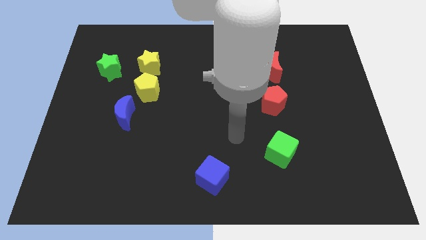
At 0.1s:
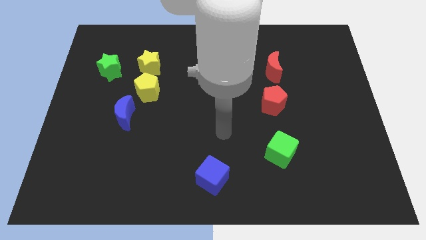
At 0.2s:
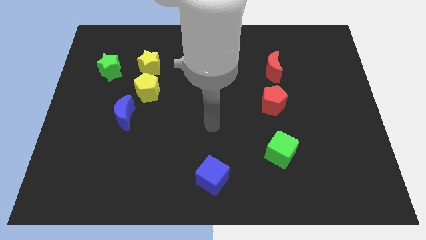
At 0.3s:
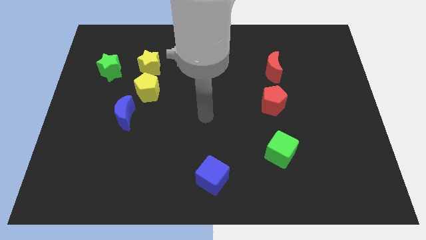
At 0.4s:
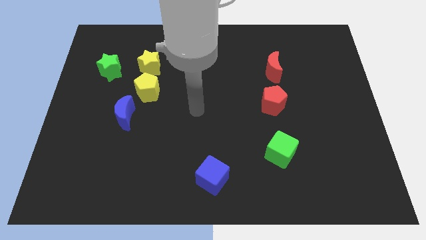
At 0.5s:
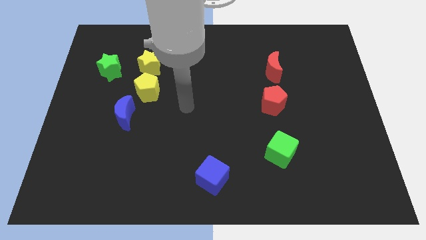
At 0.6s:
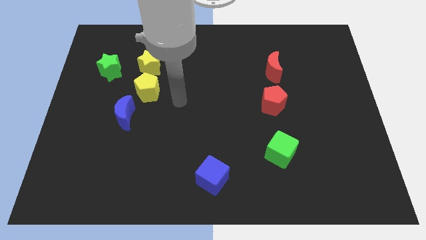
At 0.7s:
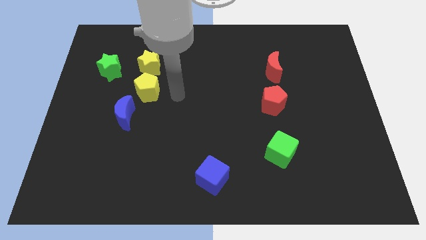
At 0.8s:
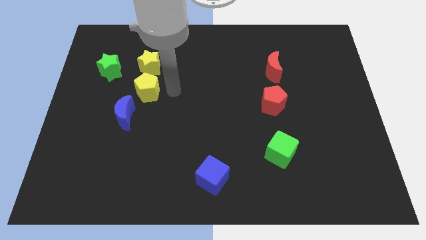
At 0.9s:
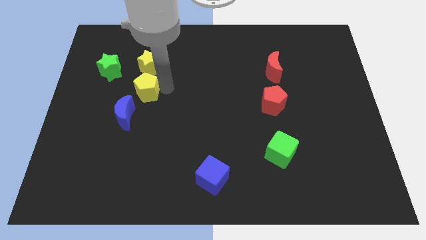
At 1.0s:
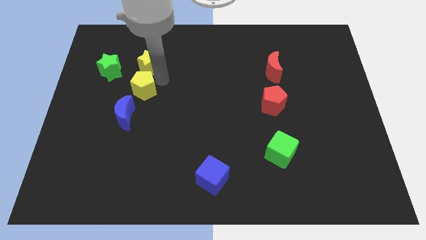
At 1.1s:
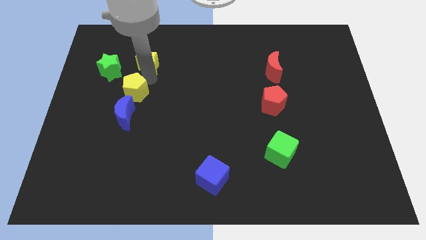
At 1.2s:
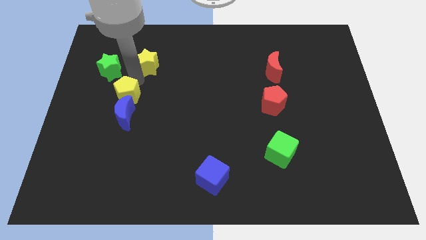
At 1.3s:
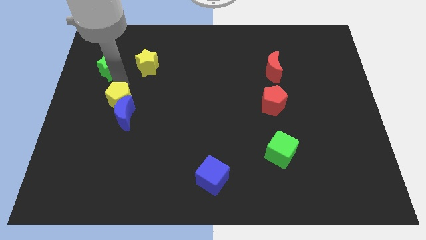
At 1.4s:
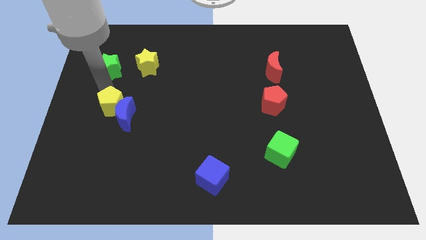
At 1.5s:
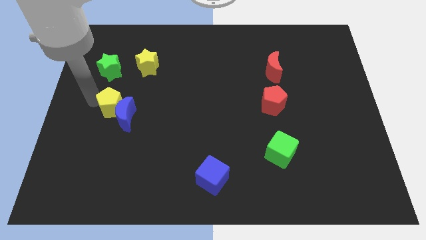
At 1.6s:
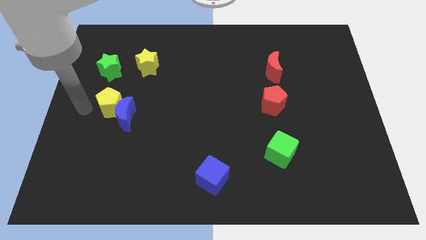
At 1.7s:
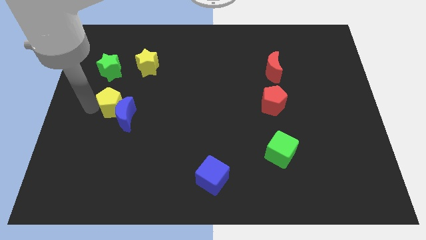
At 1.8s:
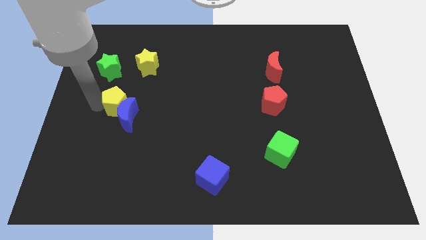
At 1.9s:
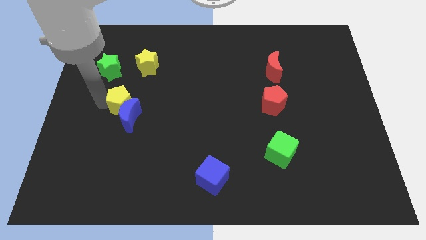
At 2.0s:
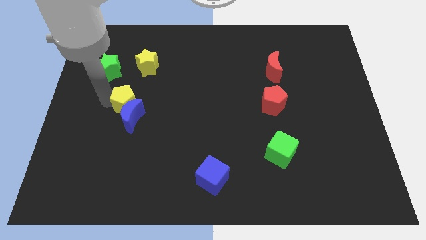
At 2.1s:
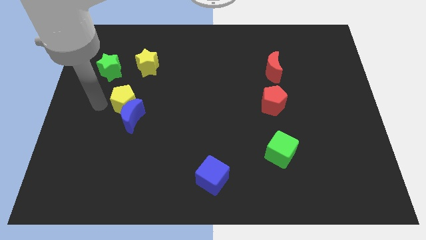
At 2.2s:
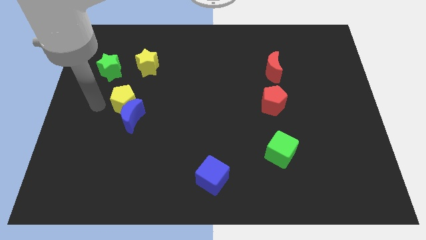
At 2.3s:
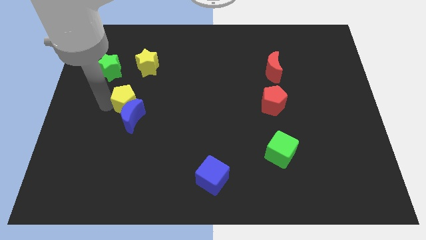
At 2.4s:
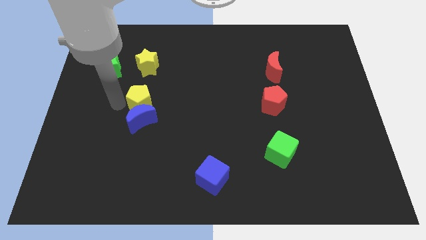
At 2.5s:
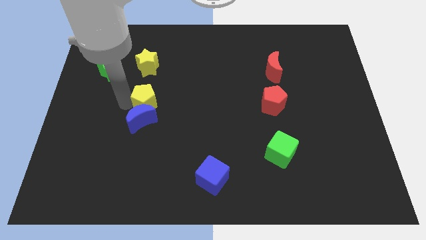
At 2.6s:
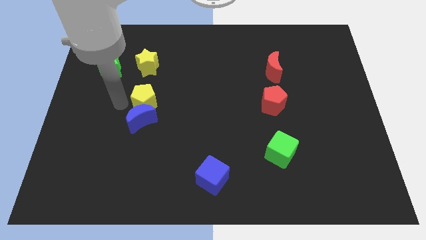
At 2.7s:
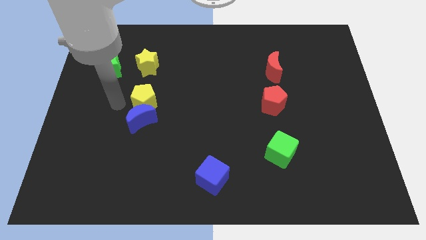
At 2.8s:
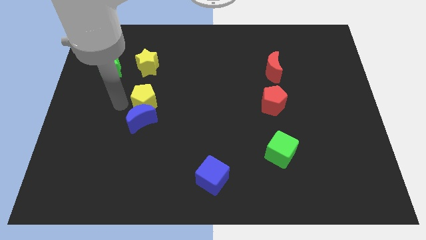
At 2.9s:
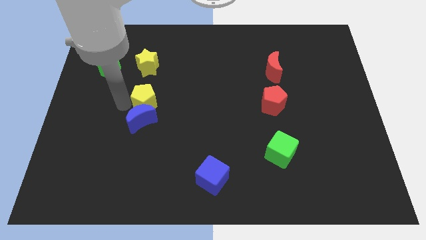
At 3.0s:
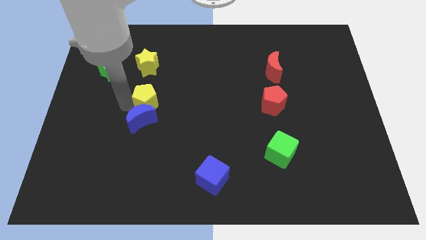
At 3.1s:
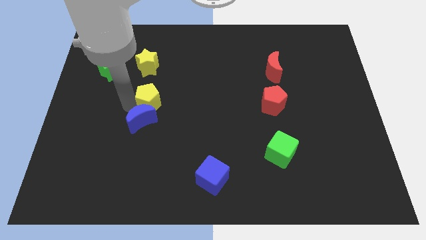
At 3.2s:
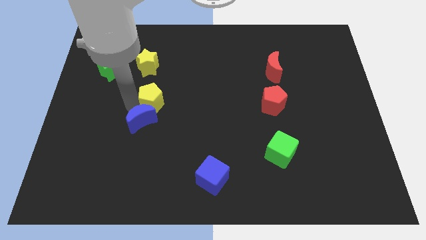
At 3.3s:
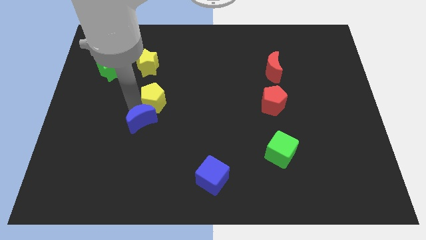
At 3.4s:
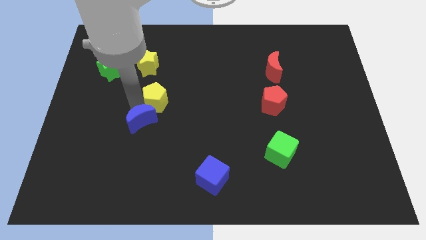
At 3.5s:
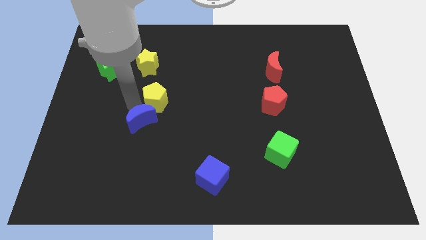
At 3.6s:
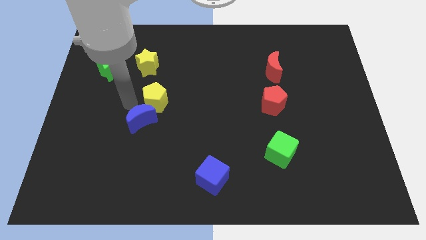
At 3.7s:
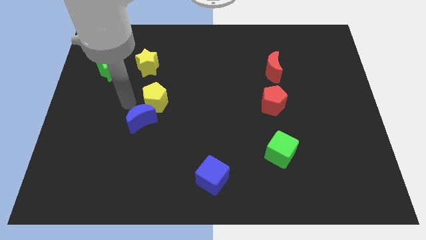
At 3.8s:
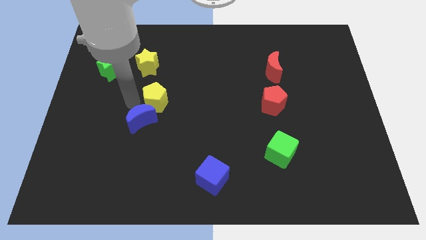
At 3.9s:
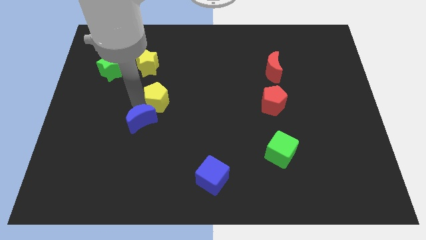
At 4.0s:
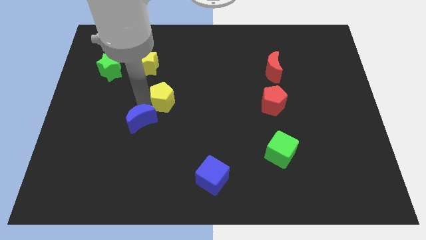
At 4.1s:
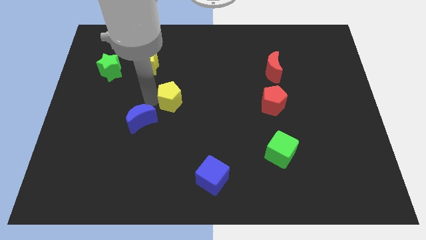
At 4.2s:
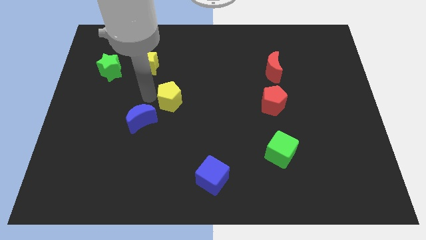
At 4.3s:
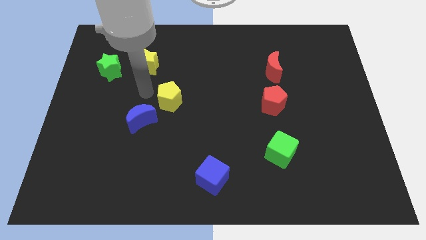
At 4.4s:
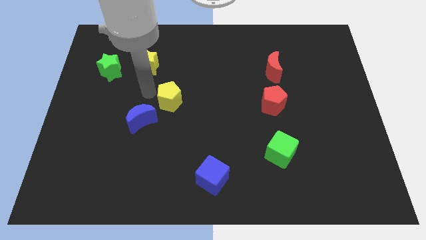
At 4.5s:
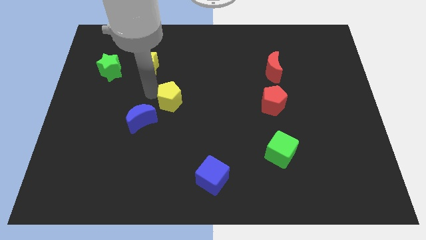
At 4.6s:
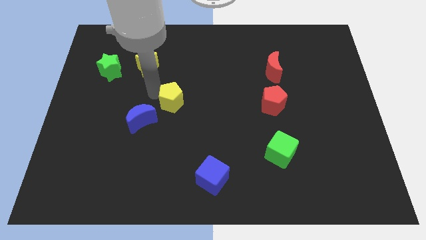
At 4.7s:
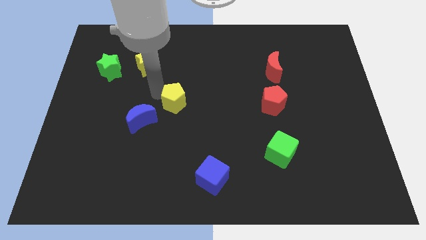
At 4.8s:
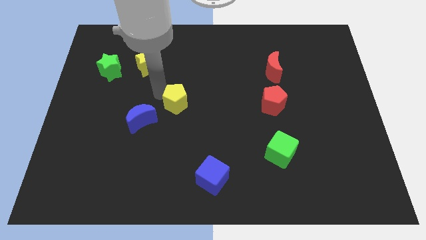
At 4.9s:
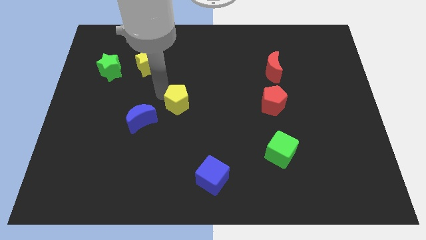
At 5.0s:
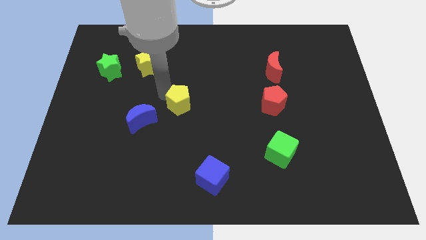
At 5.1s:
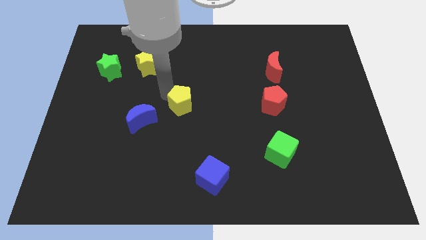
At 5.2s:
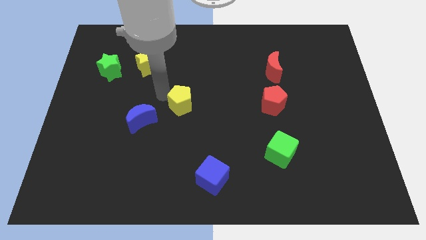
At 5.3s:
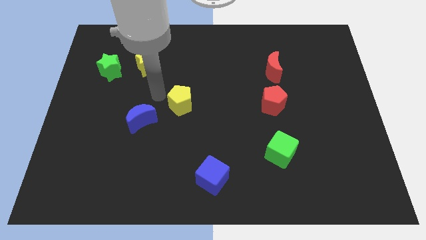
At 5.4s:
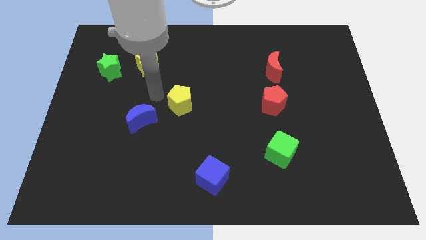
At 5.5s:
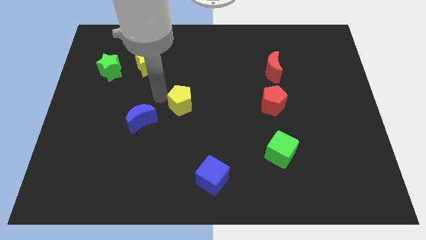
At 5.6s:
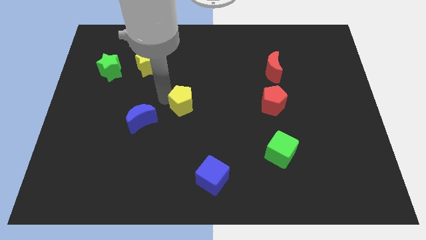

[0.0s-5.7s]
pull the yellow pentagon apart from the yellow star and blue moon

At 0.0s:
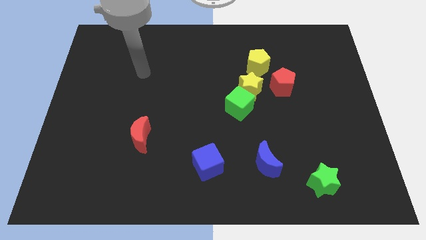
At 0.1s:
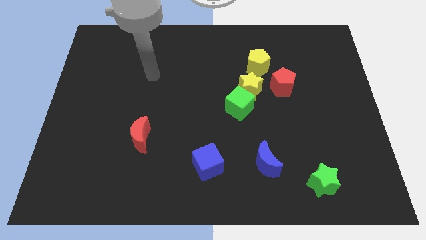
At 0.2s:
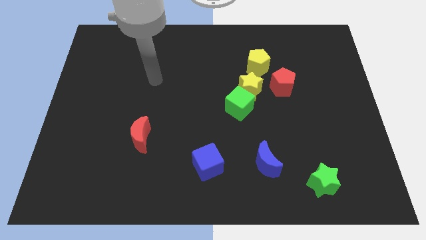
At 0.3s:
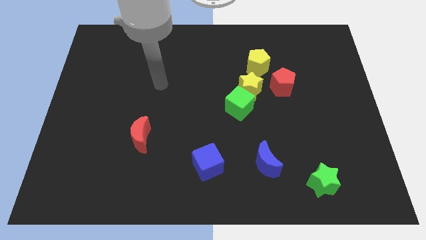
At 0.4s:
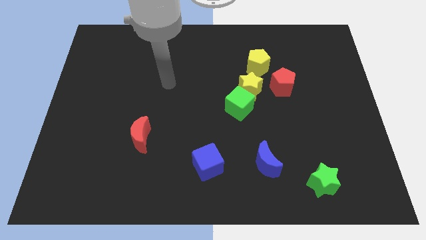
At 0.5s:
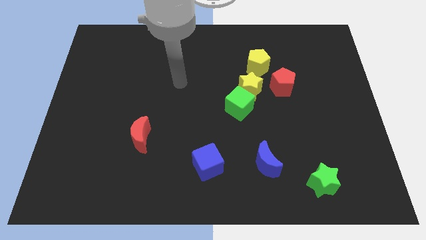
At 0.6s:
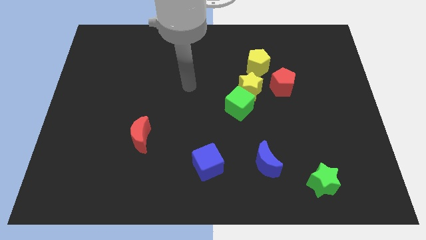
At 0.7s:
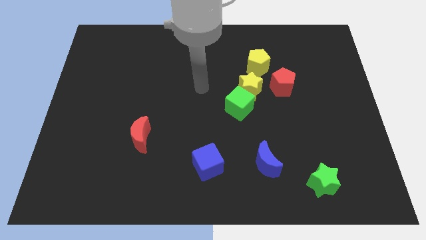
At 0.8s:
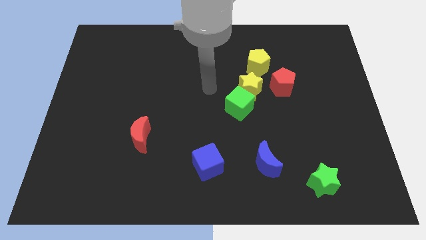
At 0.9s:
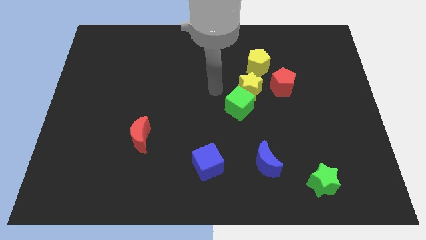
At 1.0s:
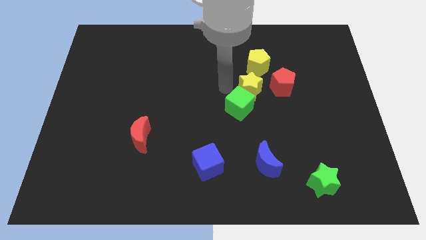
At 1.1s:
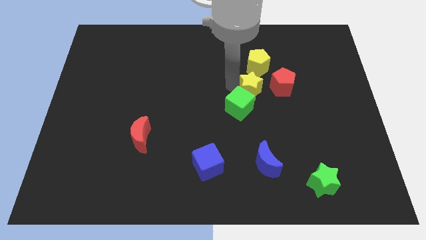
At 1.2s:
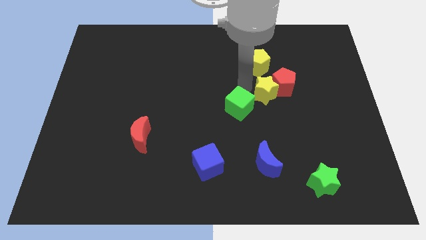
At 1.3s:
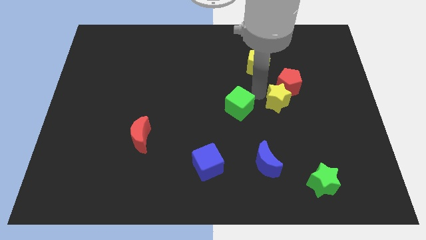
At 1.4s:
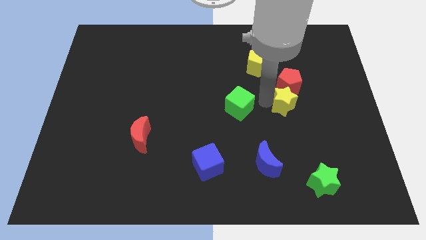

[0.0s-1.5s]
pull the green cube apart from the yellow star

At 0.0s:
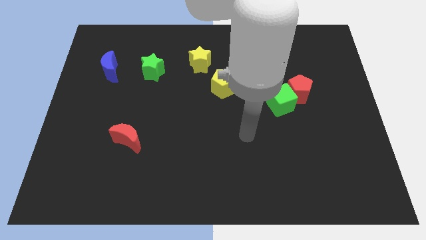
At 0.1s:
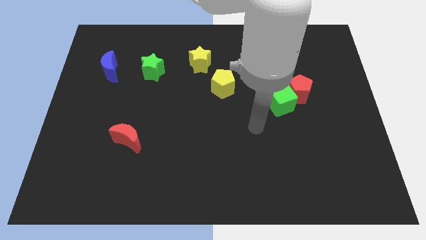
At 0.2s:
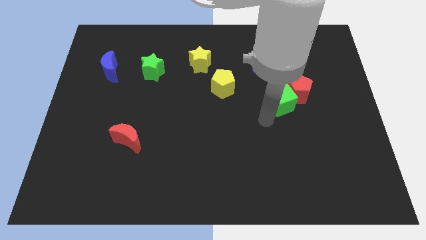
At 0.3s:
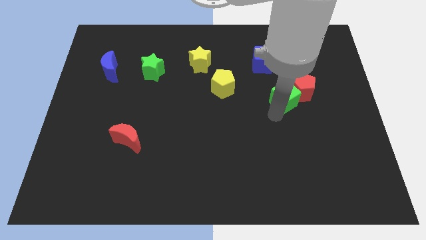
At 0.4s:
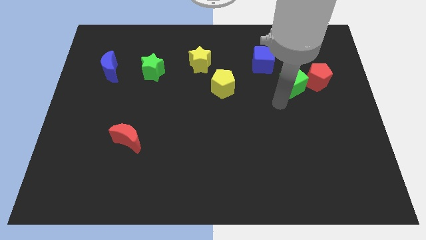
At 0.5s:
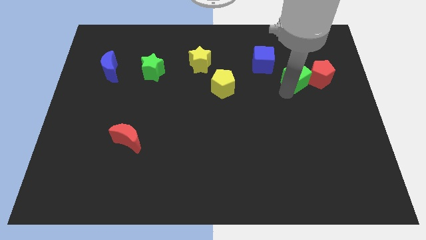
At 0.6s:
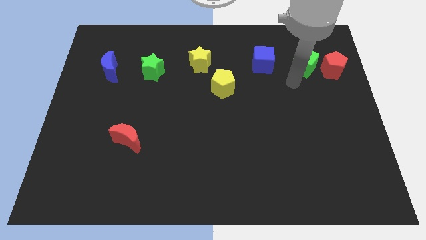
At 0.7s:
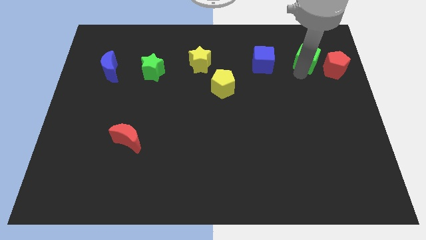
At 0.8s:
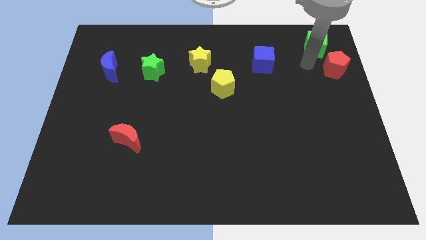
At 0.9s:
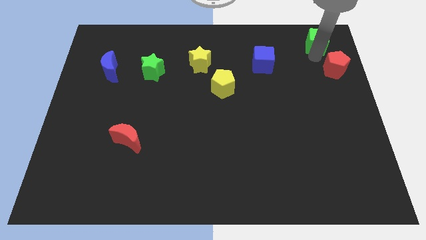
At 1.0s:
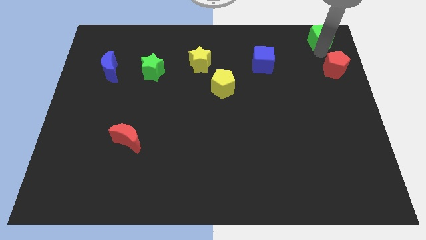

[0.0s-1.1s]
separate the red pentagon from the green cube

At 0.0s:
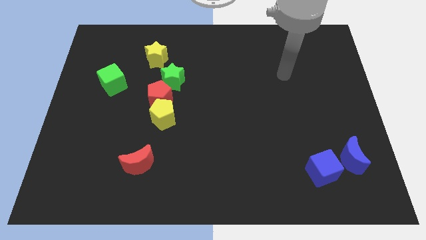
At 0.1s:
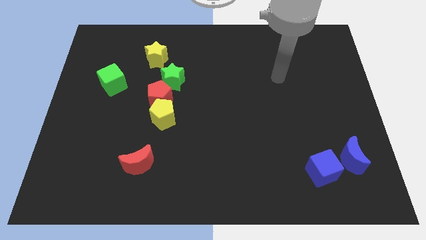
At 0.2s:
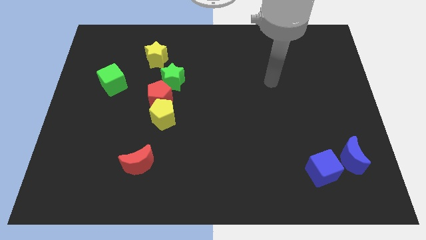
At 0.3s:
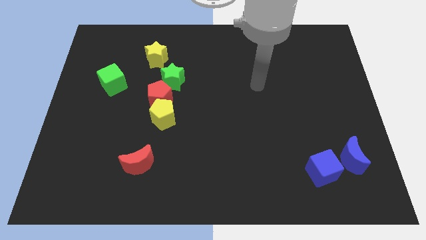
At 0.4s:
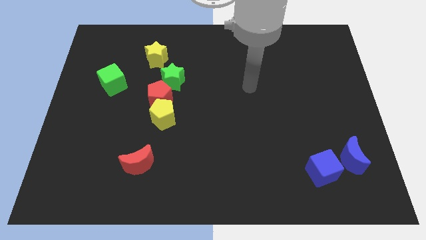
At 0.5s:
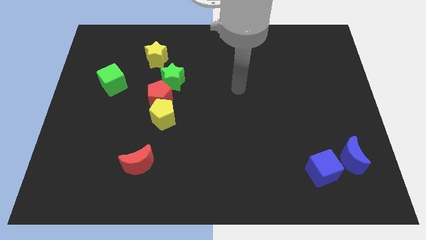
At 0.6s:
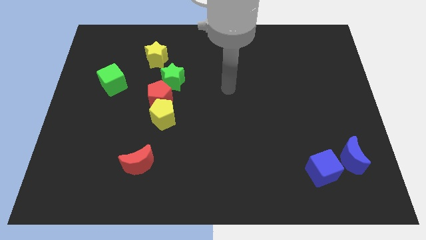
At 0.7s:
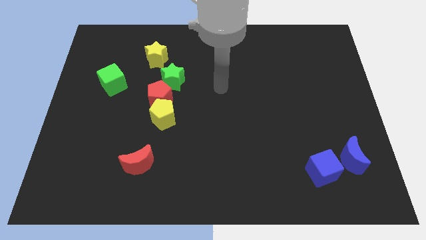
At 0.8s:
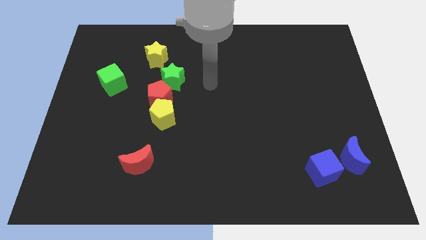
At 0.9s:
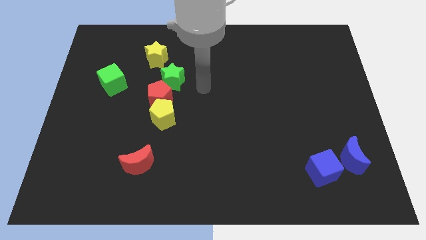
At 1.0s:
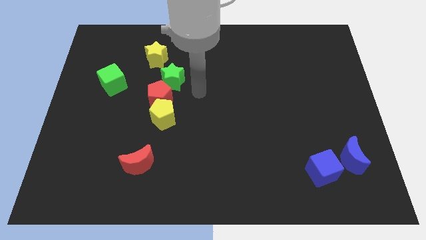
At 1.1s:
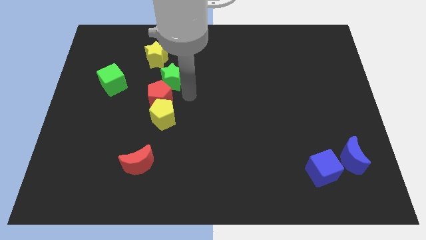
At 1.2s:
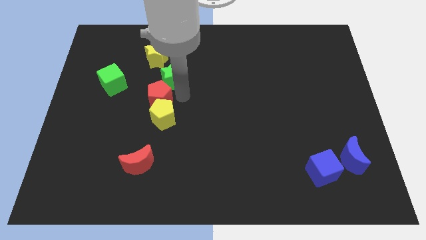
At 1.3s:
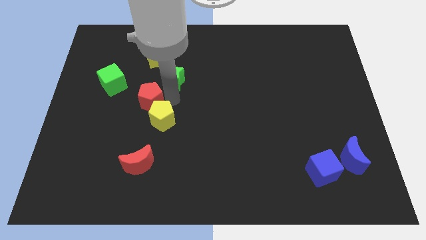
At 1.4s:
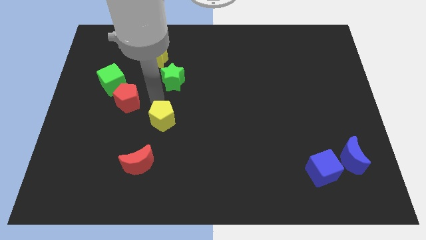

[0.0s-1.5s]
separate the yellow pentagon from the red pentagon
